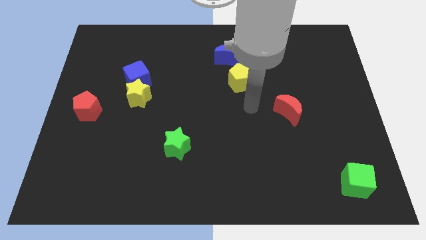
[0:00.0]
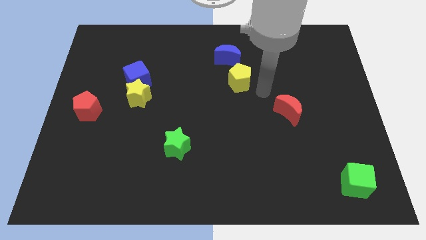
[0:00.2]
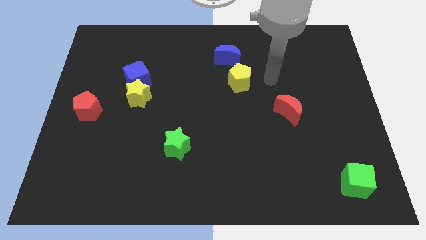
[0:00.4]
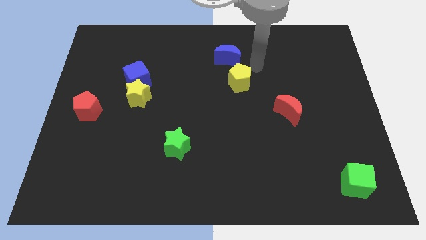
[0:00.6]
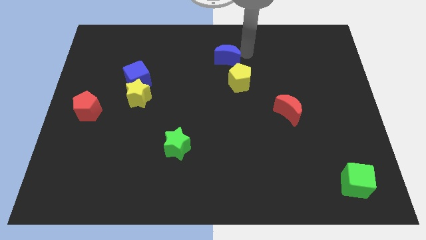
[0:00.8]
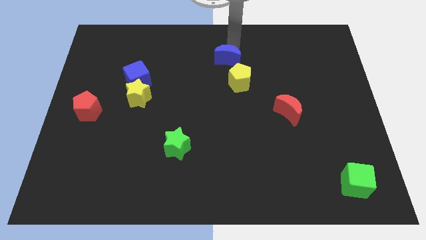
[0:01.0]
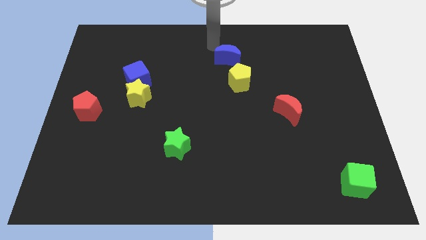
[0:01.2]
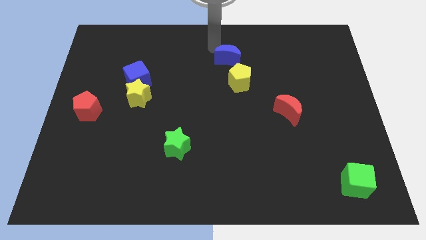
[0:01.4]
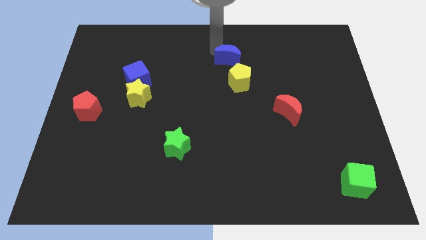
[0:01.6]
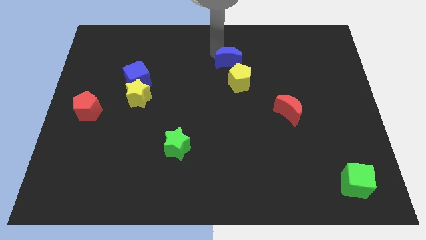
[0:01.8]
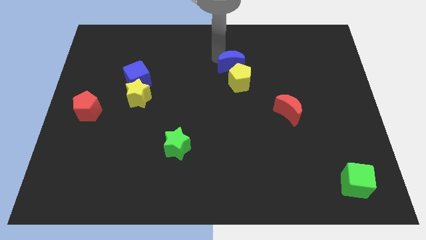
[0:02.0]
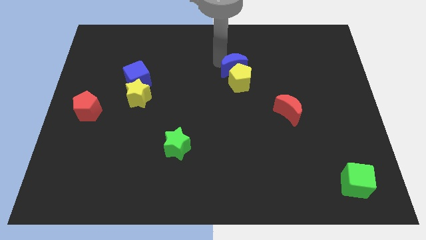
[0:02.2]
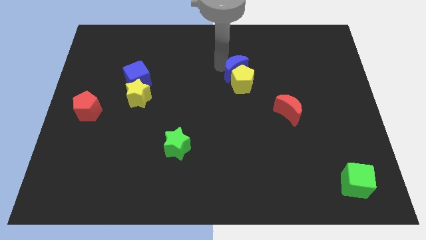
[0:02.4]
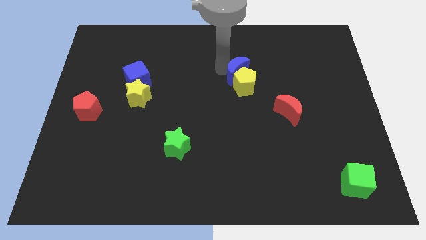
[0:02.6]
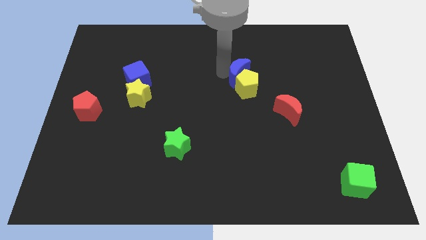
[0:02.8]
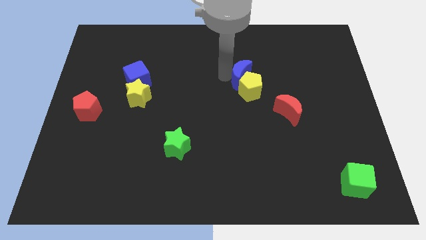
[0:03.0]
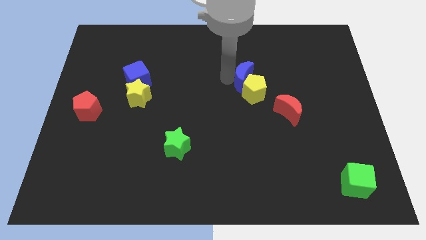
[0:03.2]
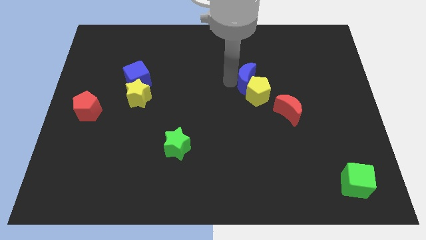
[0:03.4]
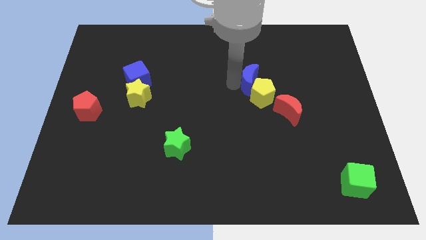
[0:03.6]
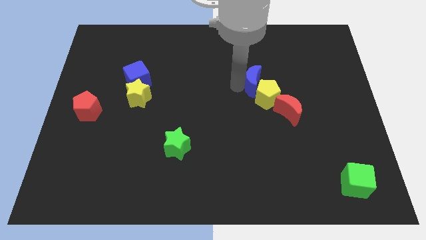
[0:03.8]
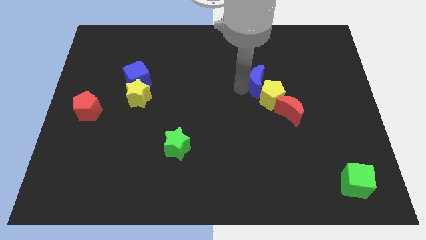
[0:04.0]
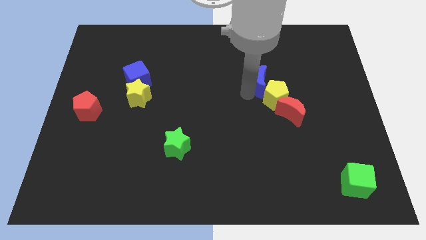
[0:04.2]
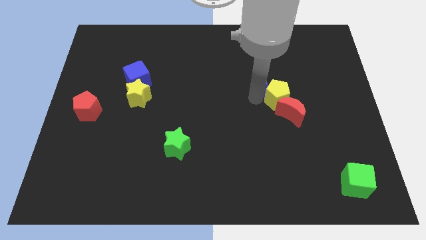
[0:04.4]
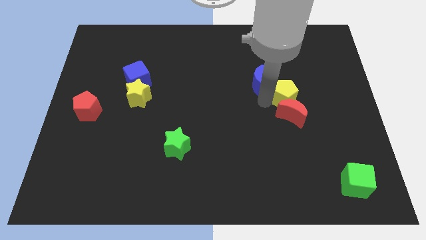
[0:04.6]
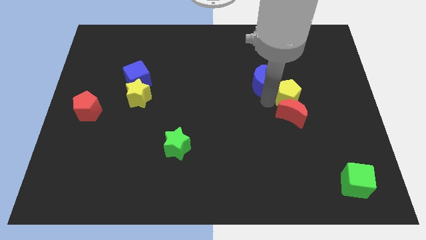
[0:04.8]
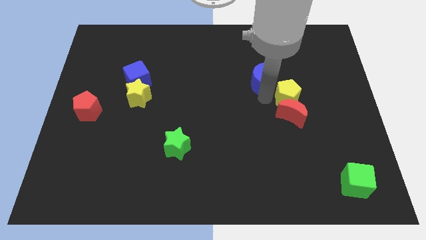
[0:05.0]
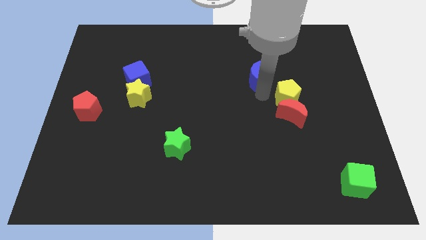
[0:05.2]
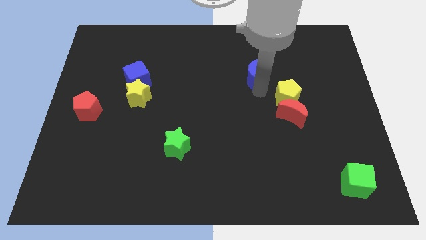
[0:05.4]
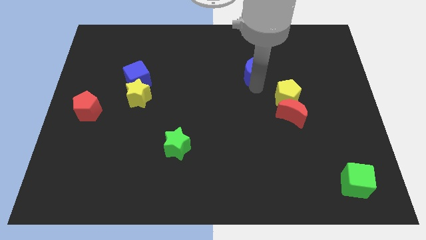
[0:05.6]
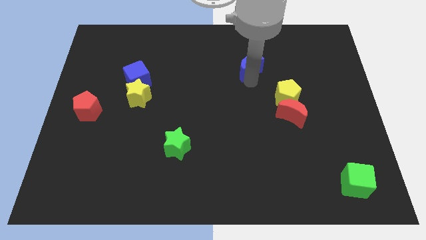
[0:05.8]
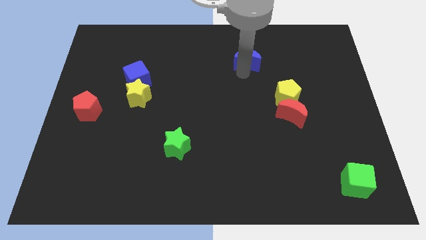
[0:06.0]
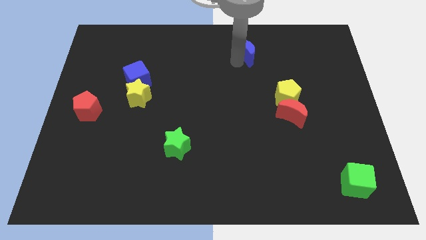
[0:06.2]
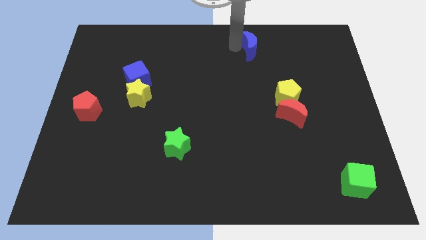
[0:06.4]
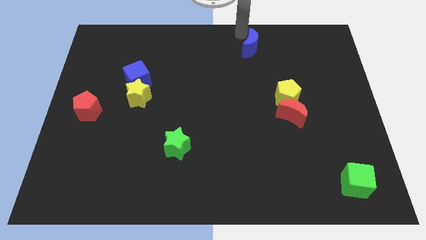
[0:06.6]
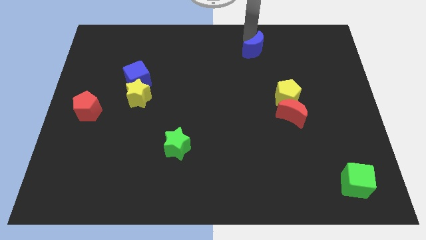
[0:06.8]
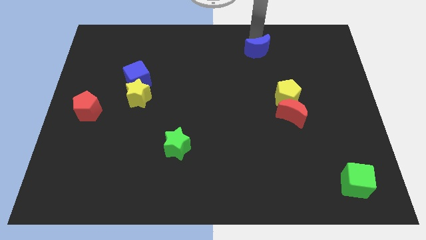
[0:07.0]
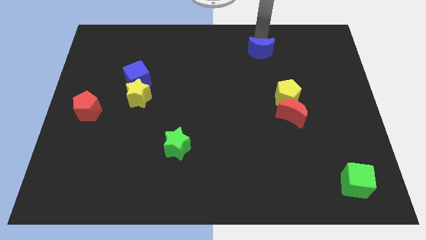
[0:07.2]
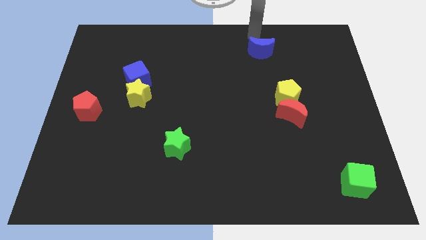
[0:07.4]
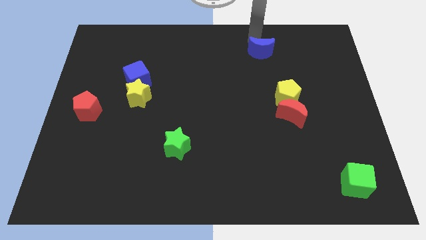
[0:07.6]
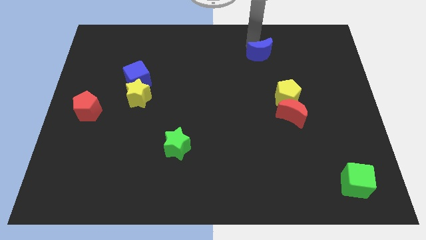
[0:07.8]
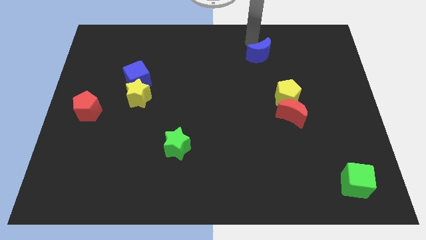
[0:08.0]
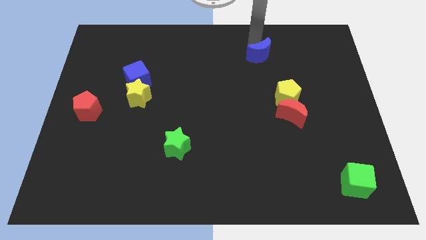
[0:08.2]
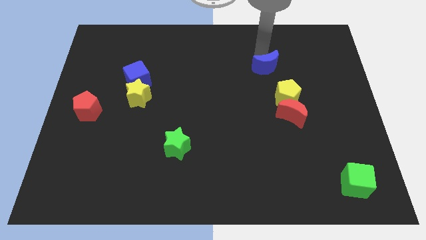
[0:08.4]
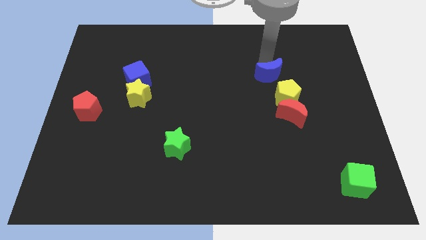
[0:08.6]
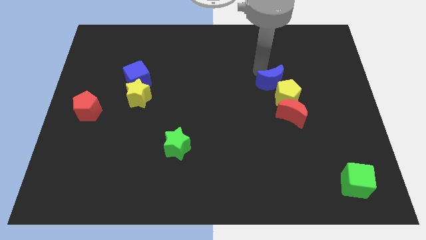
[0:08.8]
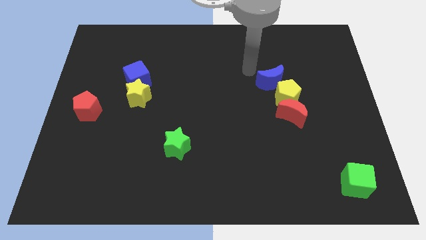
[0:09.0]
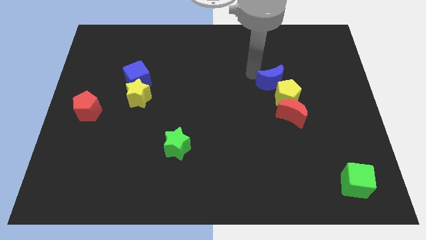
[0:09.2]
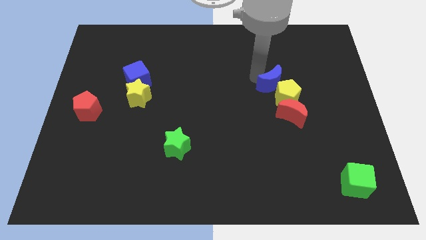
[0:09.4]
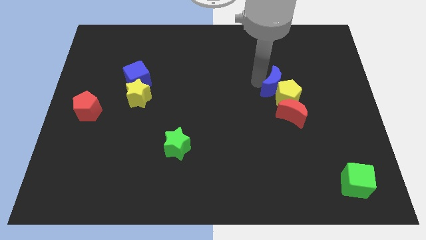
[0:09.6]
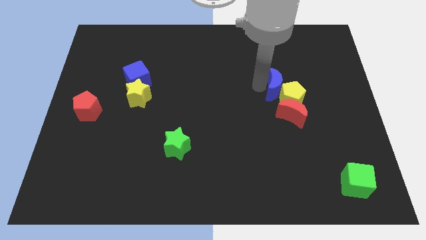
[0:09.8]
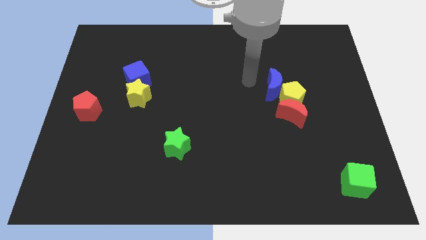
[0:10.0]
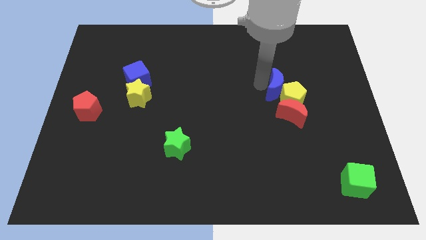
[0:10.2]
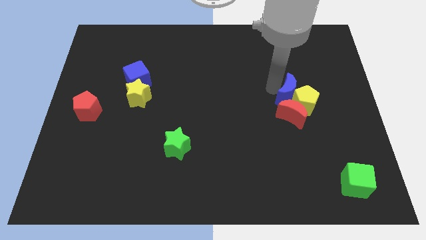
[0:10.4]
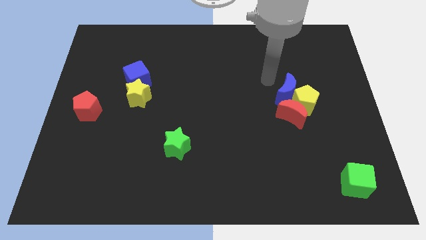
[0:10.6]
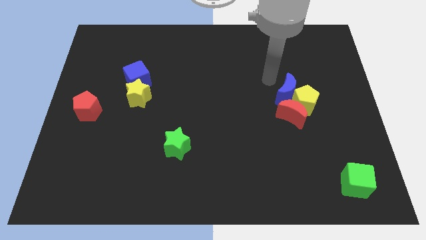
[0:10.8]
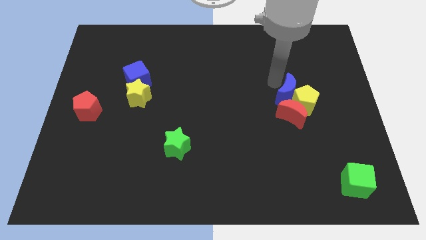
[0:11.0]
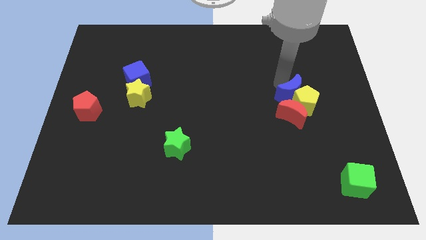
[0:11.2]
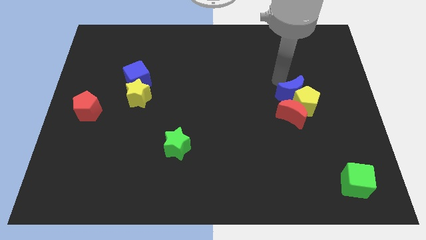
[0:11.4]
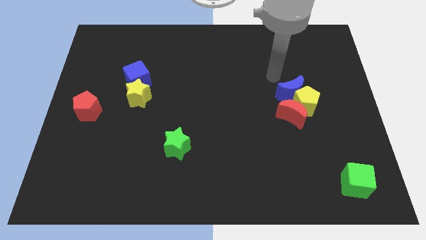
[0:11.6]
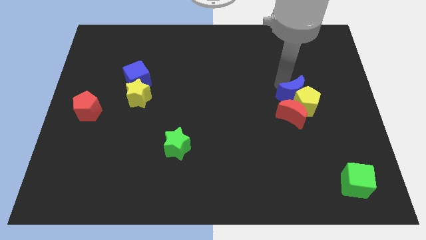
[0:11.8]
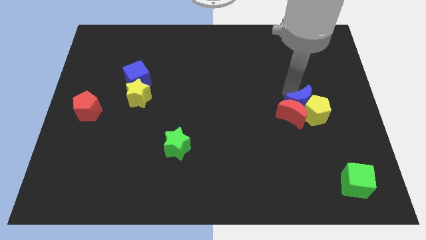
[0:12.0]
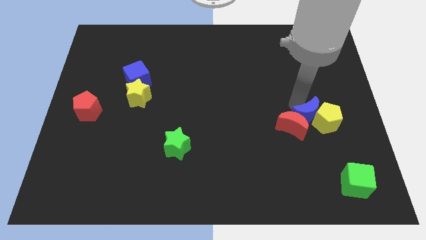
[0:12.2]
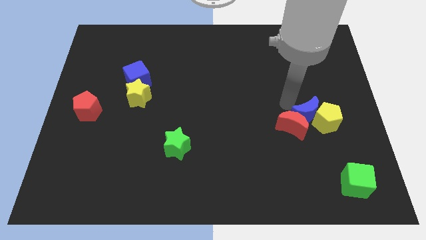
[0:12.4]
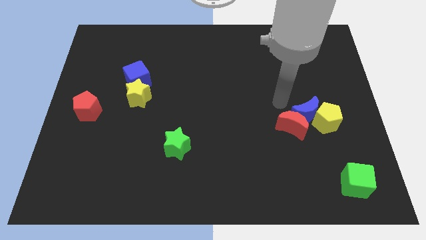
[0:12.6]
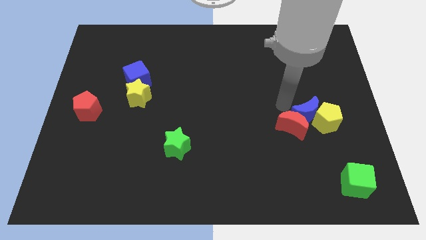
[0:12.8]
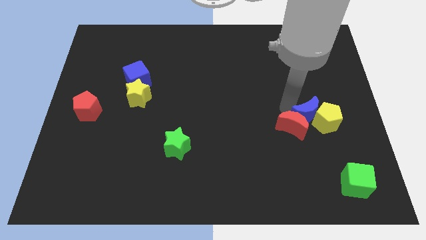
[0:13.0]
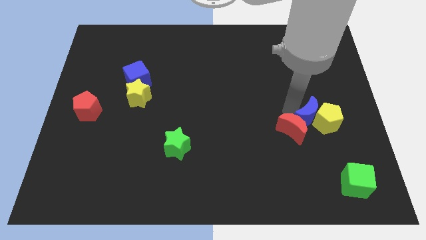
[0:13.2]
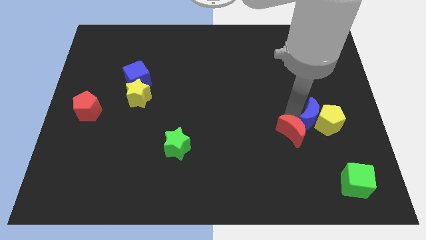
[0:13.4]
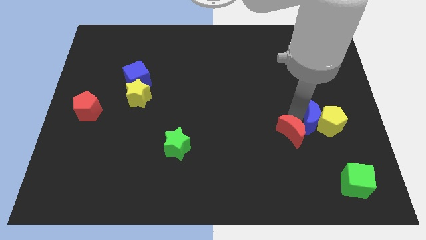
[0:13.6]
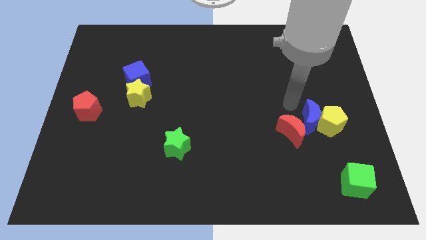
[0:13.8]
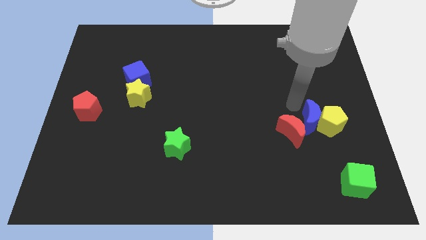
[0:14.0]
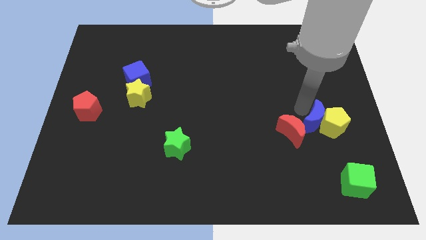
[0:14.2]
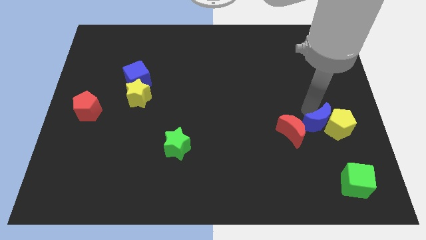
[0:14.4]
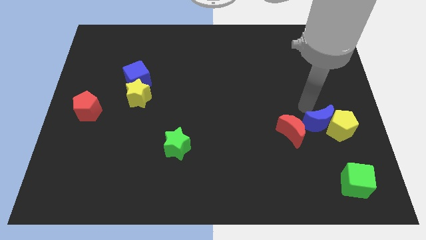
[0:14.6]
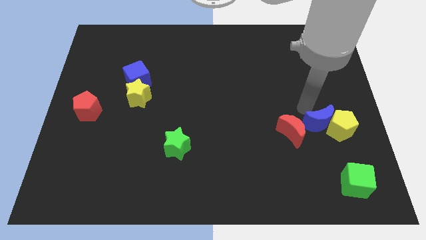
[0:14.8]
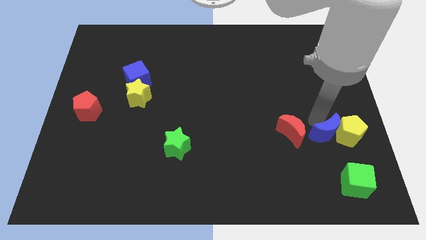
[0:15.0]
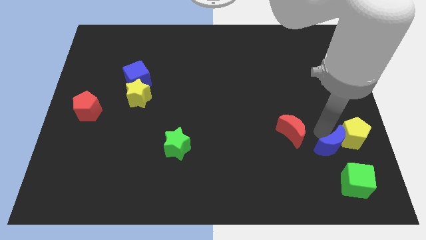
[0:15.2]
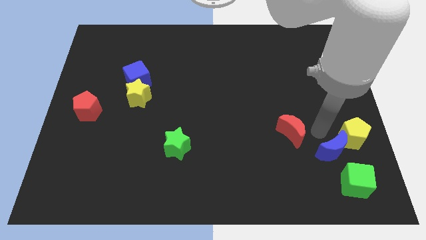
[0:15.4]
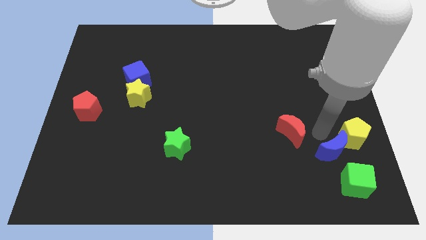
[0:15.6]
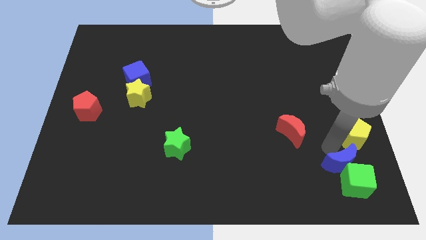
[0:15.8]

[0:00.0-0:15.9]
push the blue moon next to the green cube
